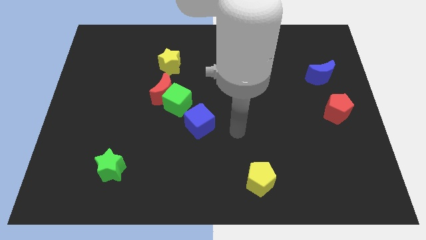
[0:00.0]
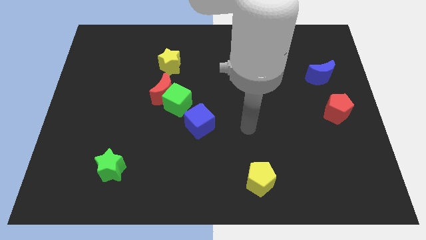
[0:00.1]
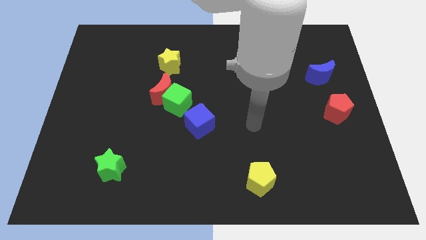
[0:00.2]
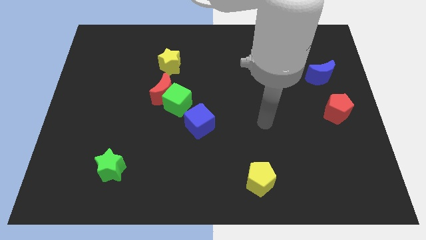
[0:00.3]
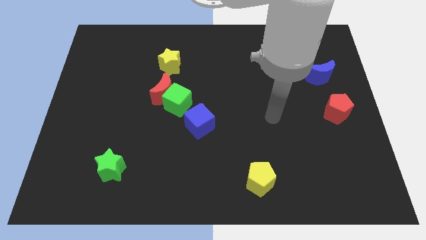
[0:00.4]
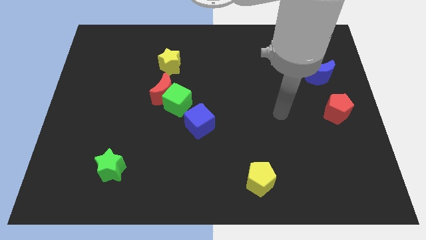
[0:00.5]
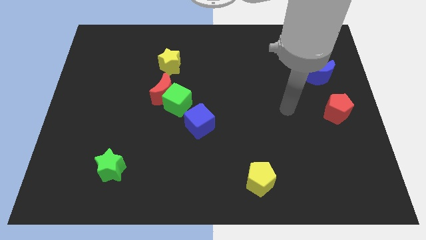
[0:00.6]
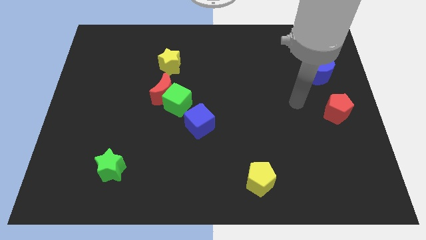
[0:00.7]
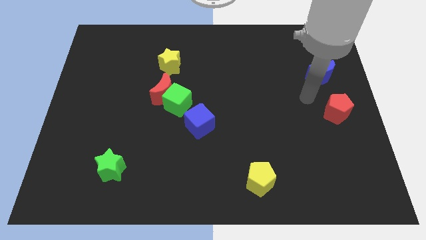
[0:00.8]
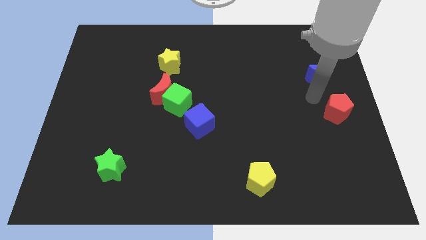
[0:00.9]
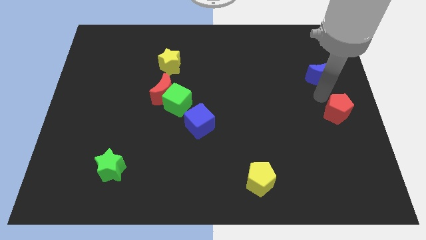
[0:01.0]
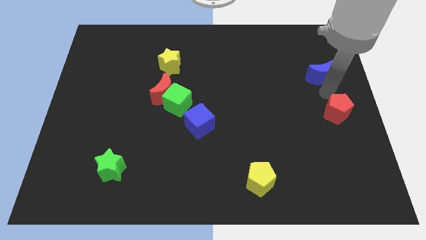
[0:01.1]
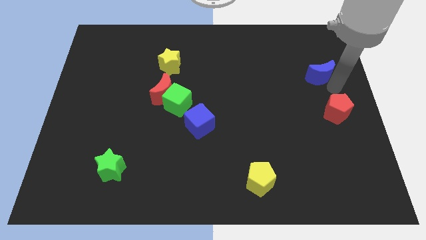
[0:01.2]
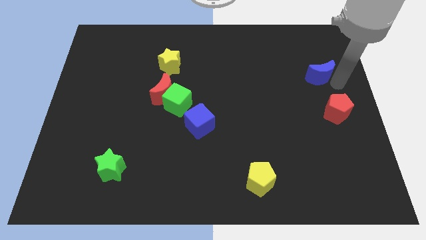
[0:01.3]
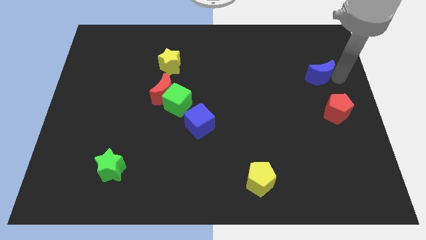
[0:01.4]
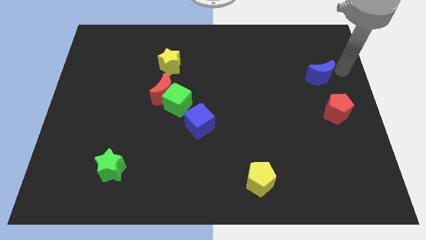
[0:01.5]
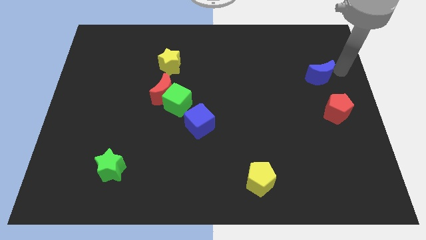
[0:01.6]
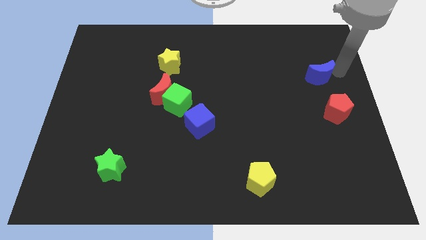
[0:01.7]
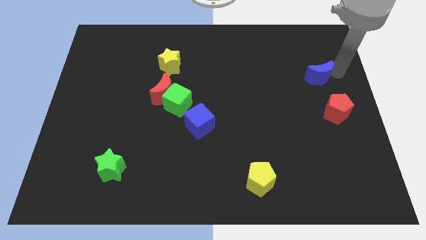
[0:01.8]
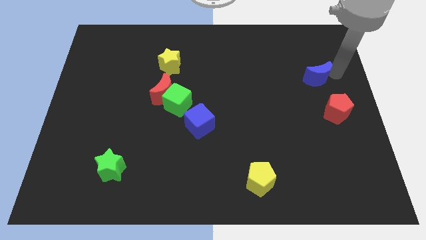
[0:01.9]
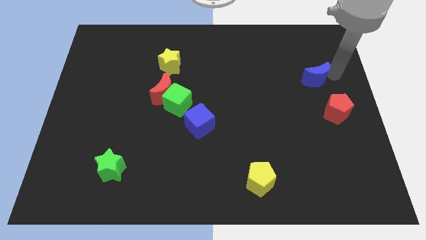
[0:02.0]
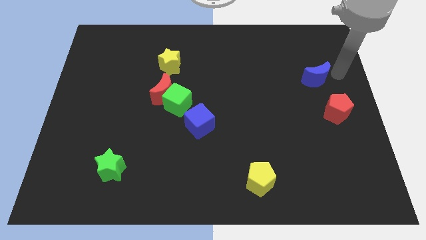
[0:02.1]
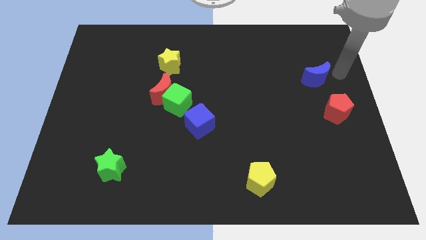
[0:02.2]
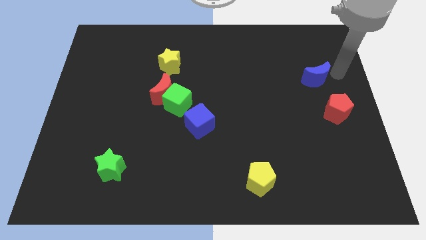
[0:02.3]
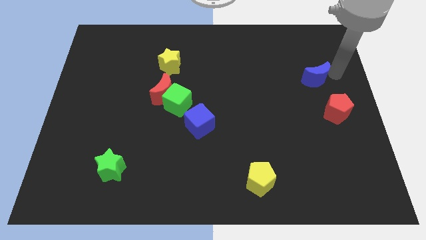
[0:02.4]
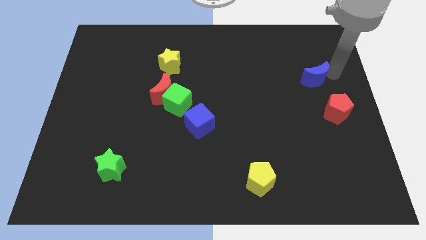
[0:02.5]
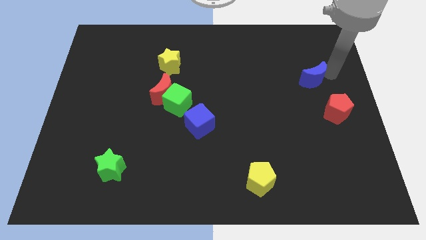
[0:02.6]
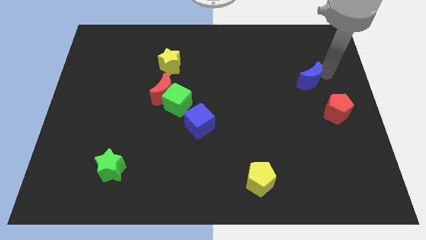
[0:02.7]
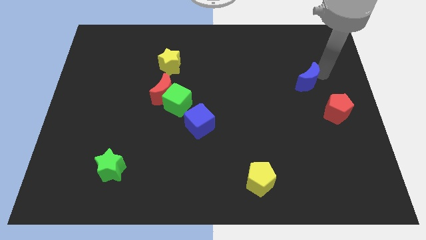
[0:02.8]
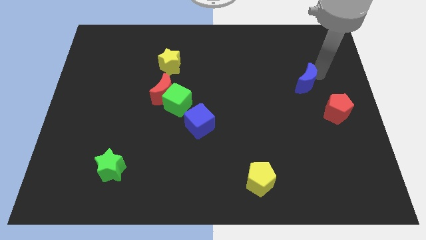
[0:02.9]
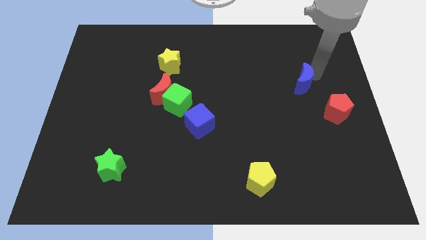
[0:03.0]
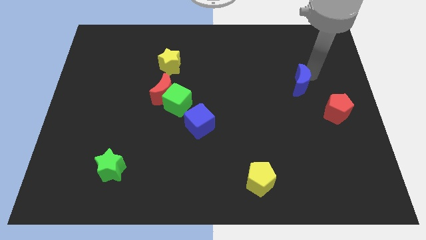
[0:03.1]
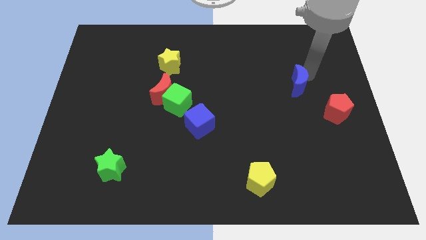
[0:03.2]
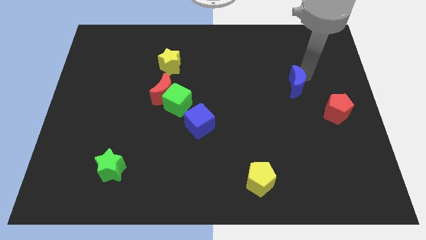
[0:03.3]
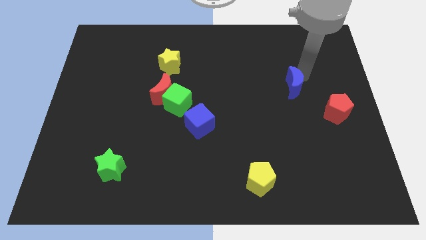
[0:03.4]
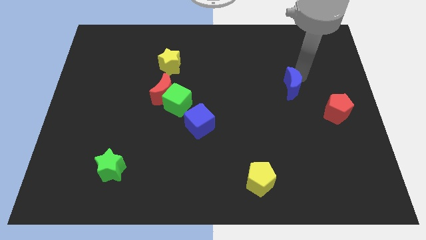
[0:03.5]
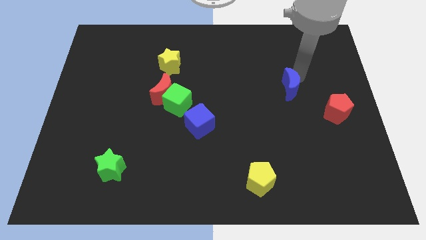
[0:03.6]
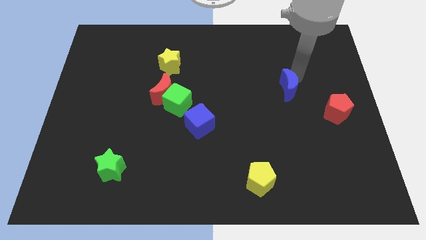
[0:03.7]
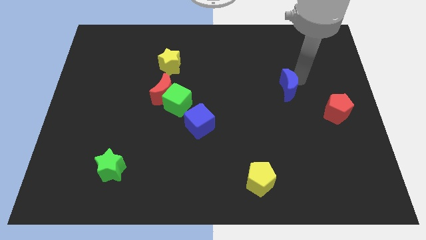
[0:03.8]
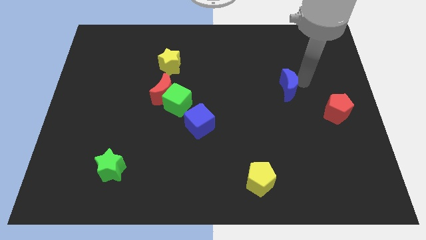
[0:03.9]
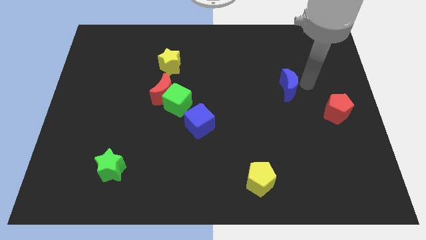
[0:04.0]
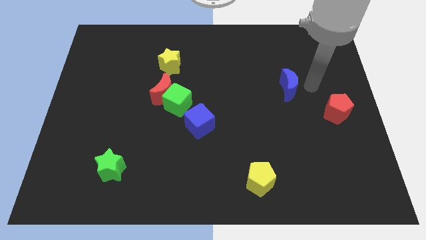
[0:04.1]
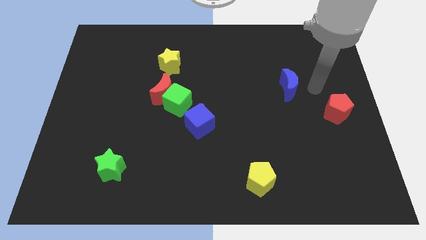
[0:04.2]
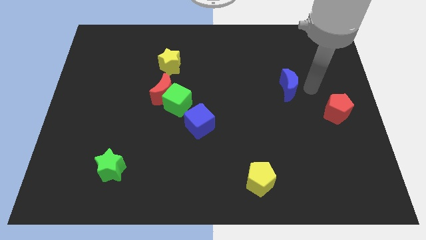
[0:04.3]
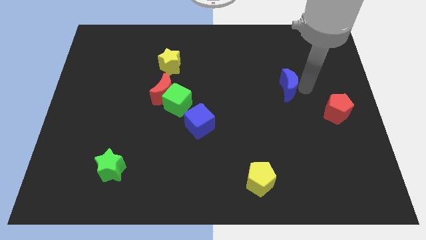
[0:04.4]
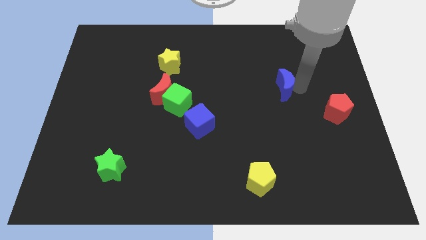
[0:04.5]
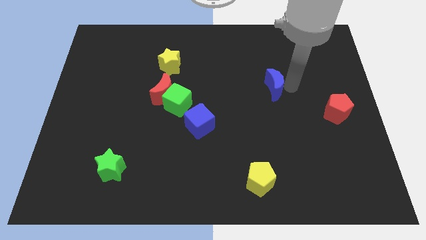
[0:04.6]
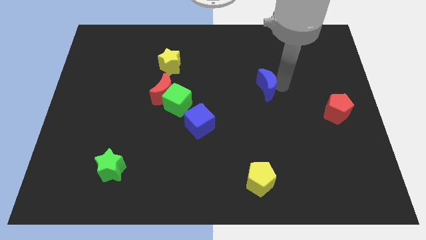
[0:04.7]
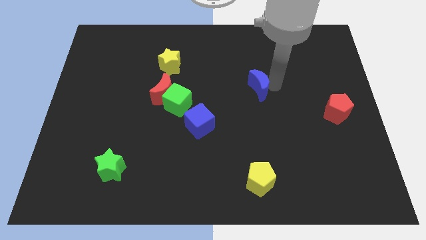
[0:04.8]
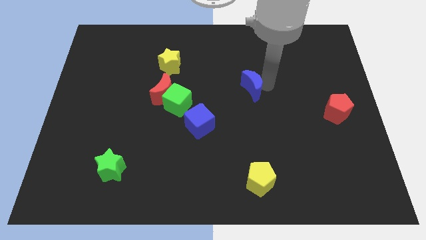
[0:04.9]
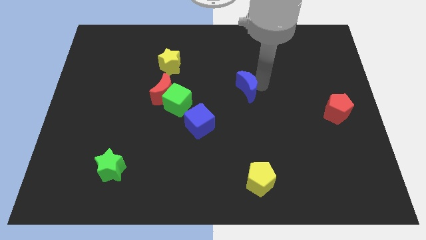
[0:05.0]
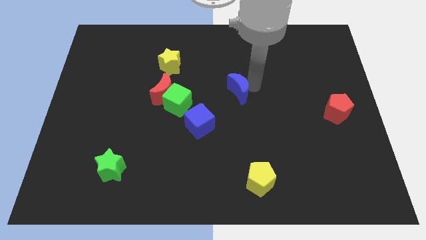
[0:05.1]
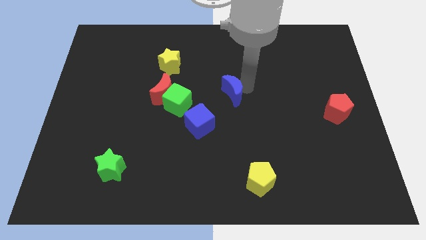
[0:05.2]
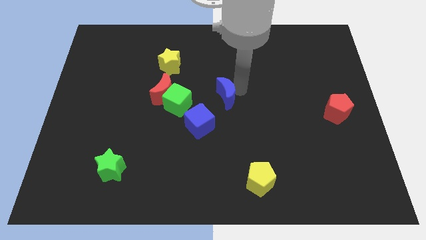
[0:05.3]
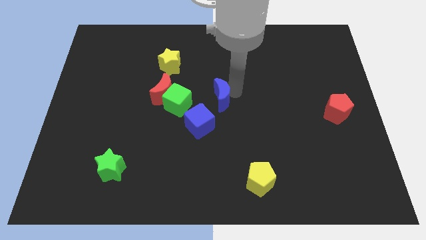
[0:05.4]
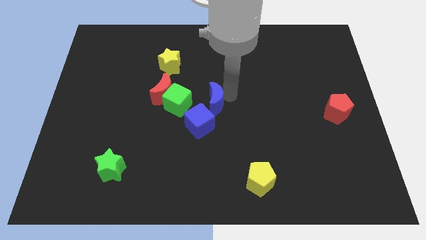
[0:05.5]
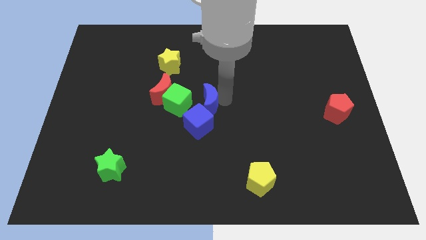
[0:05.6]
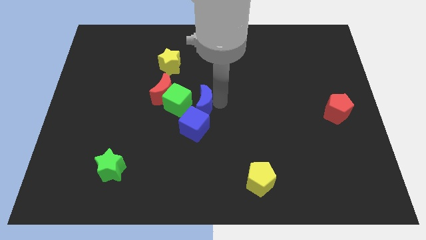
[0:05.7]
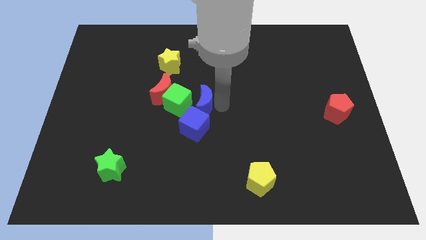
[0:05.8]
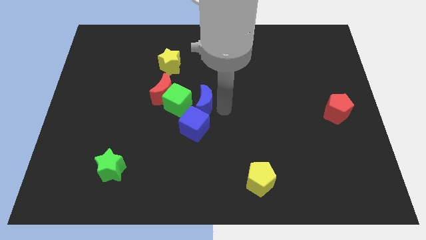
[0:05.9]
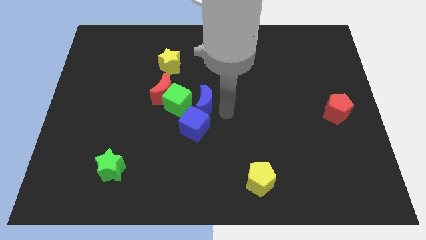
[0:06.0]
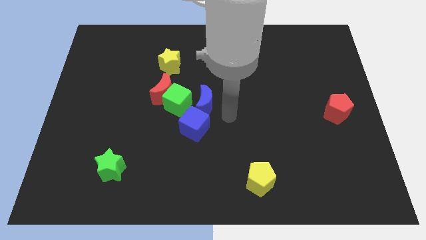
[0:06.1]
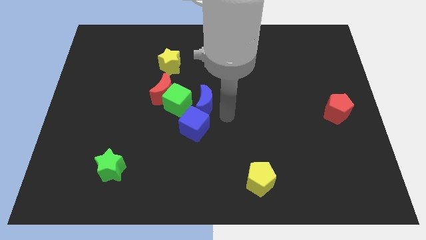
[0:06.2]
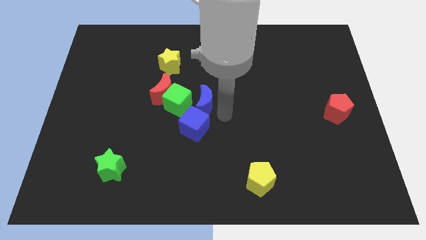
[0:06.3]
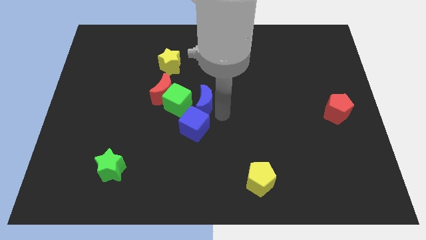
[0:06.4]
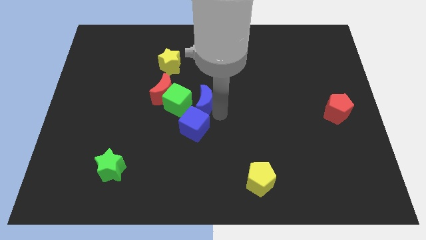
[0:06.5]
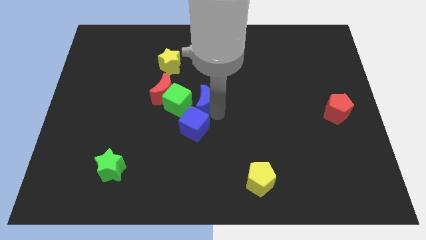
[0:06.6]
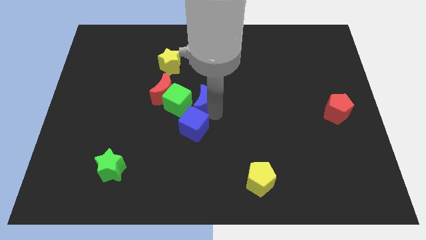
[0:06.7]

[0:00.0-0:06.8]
slide the blue moon to the green cube
